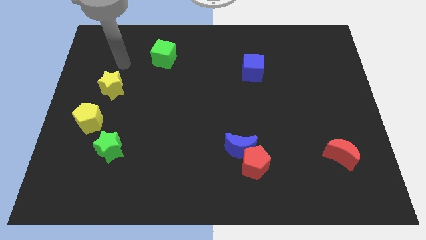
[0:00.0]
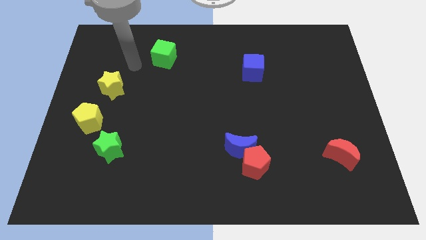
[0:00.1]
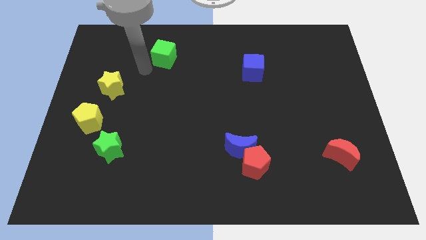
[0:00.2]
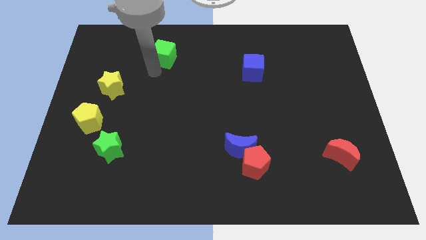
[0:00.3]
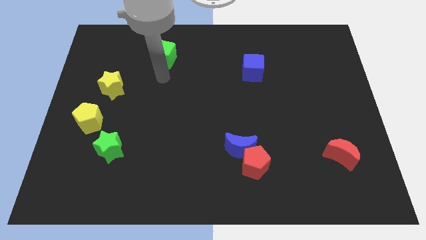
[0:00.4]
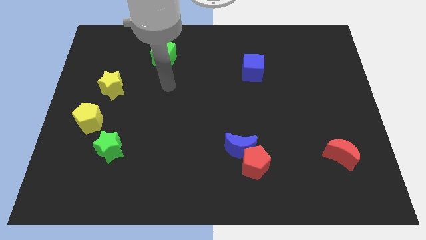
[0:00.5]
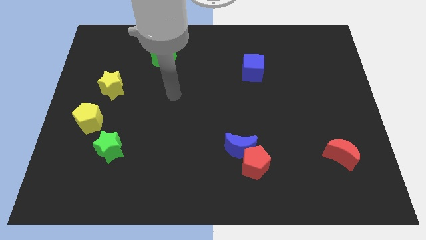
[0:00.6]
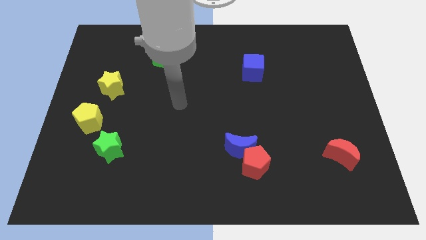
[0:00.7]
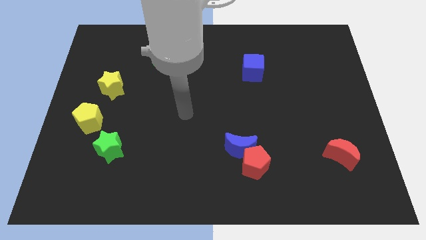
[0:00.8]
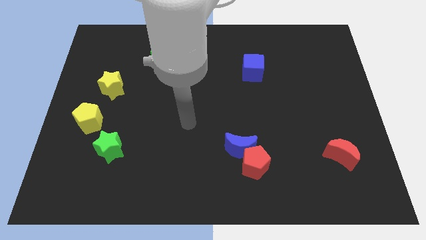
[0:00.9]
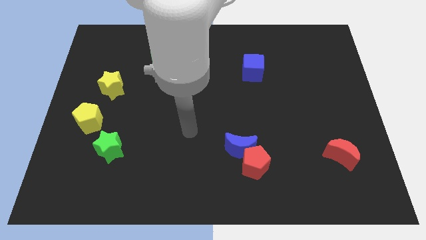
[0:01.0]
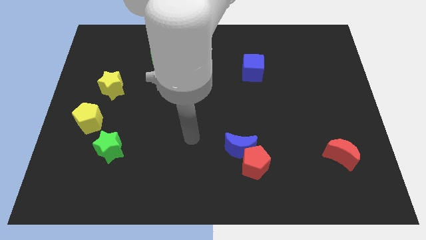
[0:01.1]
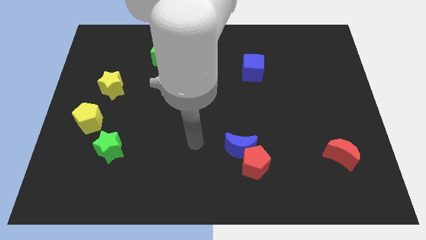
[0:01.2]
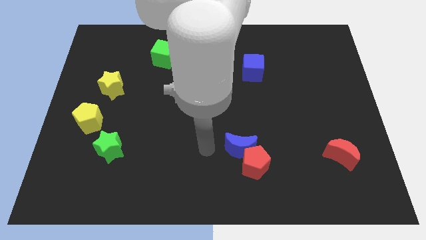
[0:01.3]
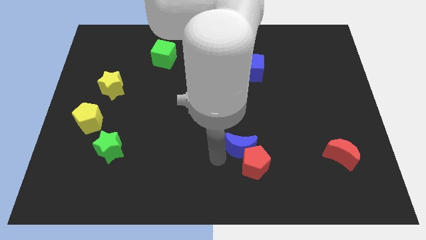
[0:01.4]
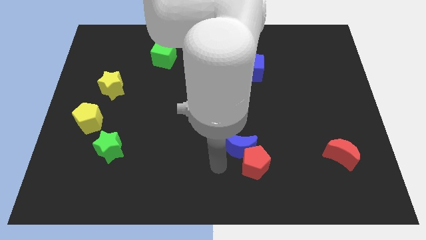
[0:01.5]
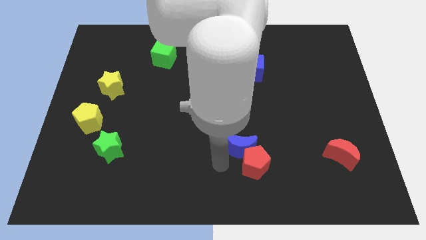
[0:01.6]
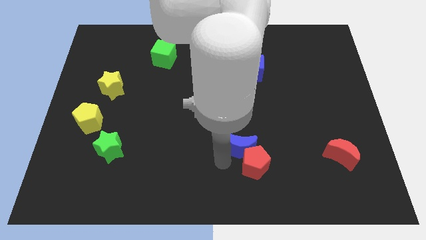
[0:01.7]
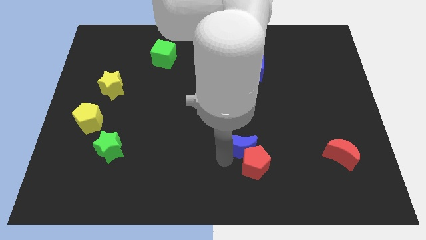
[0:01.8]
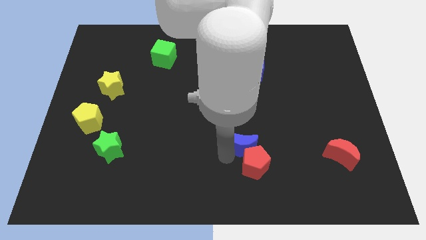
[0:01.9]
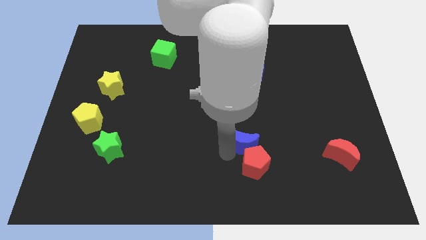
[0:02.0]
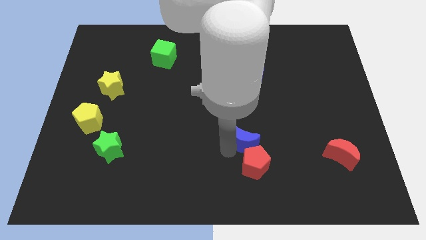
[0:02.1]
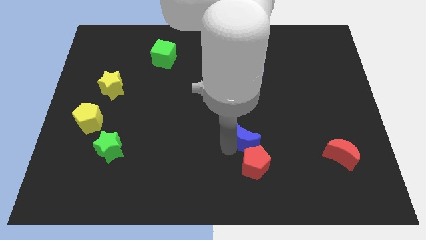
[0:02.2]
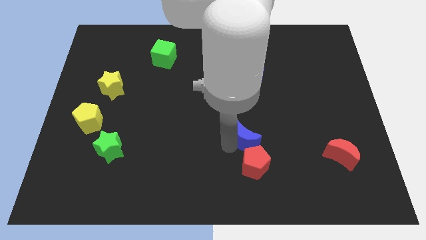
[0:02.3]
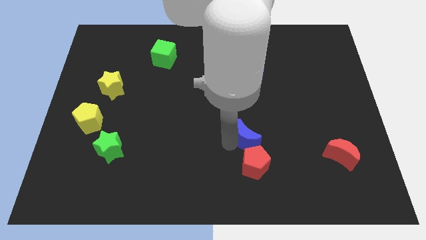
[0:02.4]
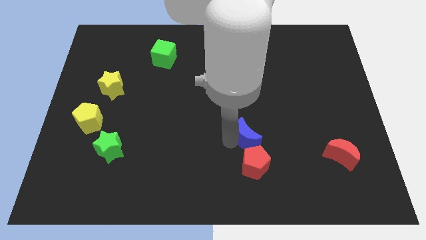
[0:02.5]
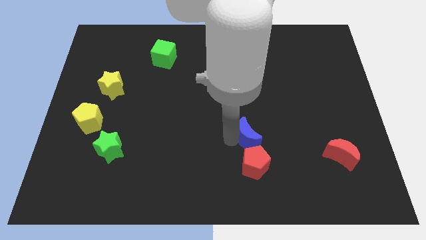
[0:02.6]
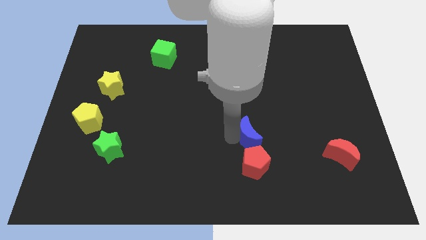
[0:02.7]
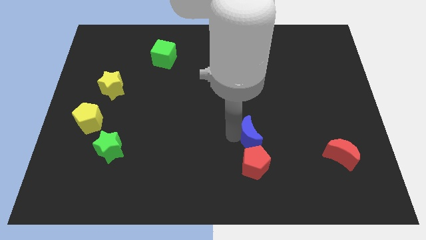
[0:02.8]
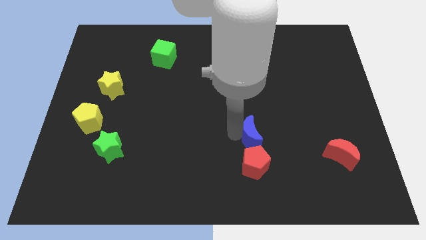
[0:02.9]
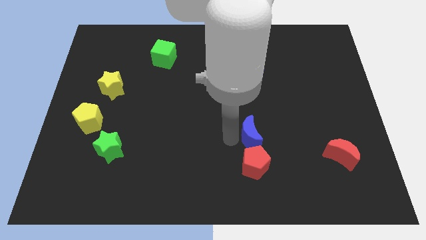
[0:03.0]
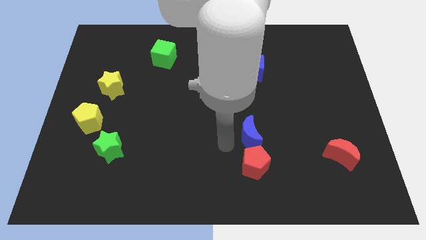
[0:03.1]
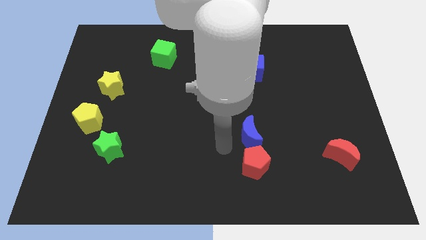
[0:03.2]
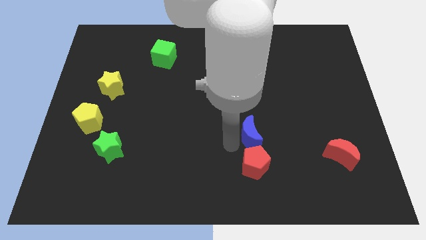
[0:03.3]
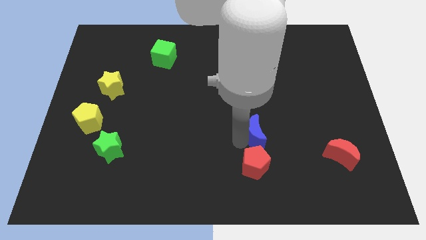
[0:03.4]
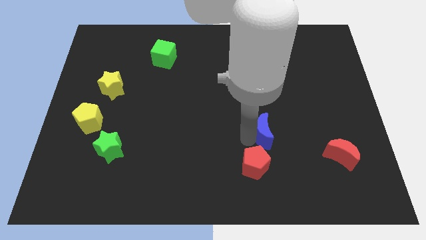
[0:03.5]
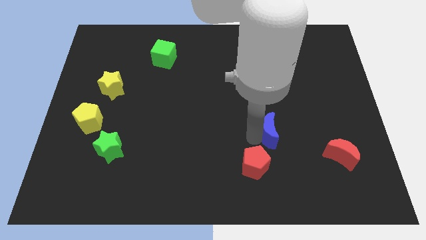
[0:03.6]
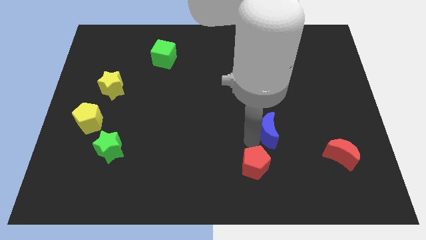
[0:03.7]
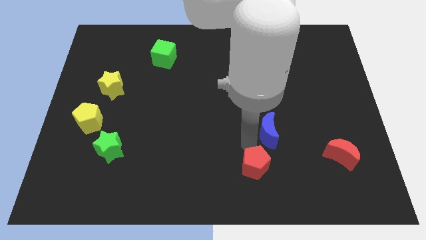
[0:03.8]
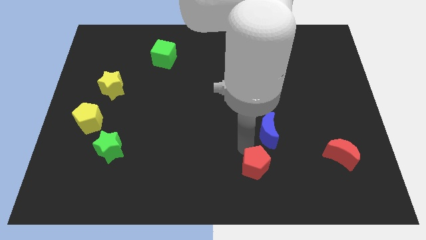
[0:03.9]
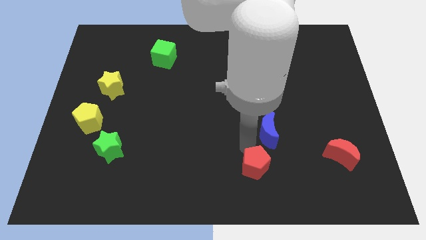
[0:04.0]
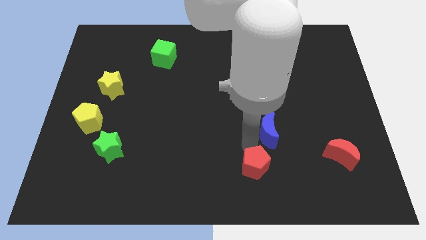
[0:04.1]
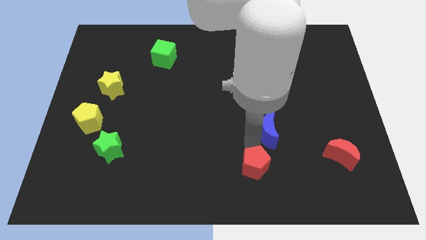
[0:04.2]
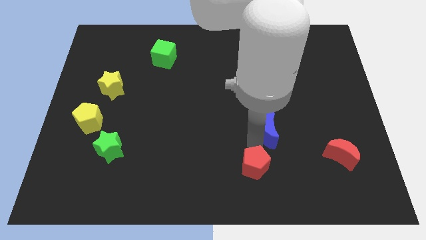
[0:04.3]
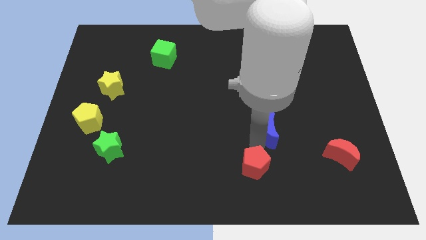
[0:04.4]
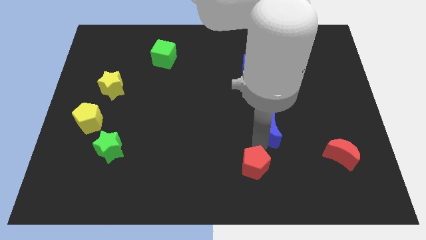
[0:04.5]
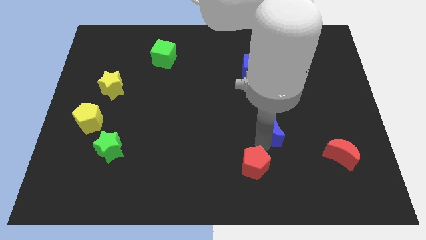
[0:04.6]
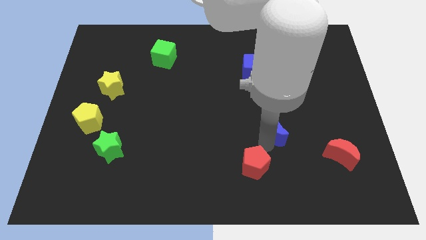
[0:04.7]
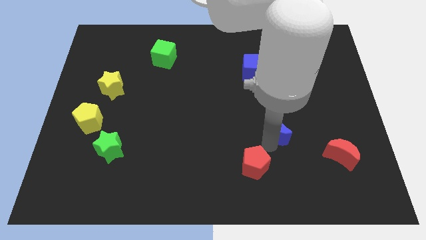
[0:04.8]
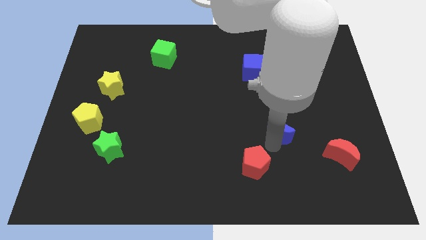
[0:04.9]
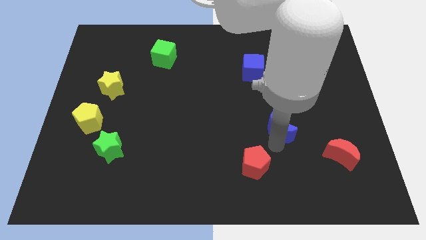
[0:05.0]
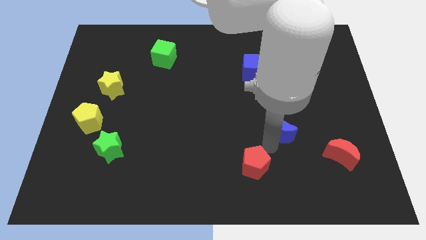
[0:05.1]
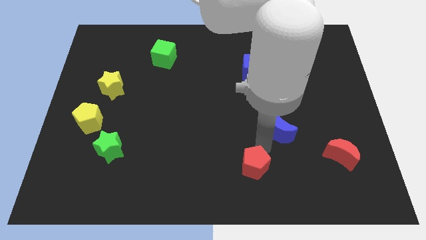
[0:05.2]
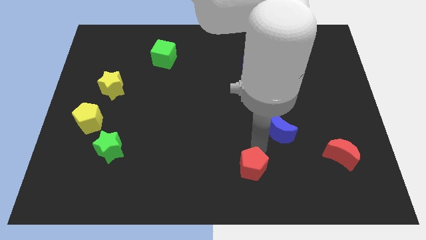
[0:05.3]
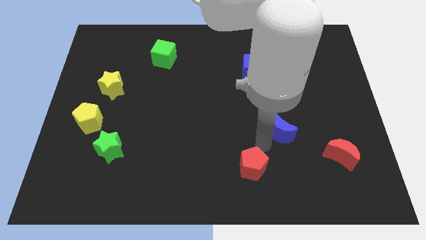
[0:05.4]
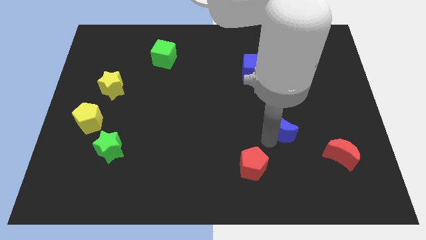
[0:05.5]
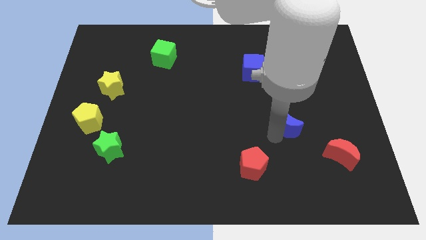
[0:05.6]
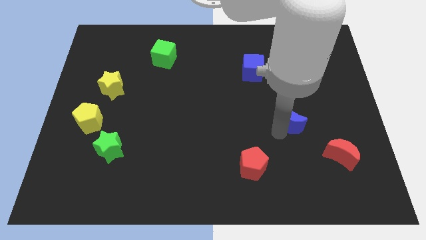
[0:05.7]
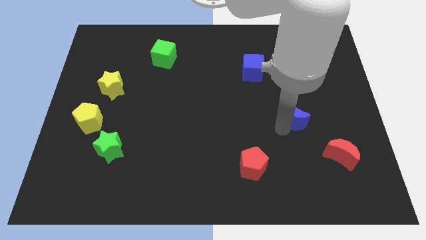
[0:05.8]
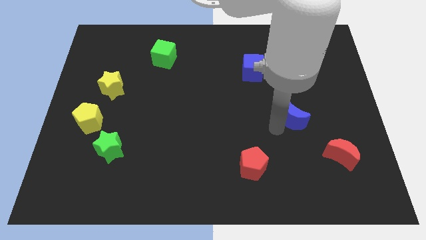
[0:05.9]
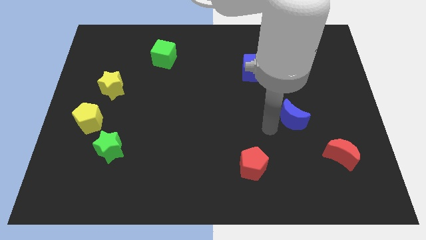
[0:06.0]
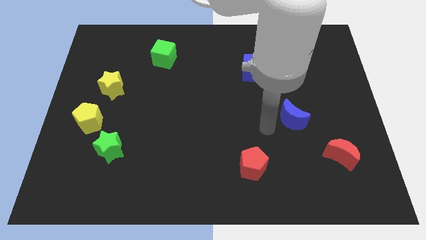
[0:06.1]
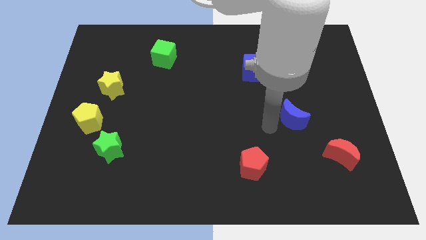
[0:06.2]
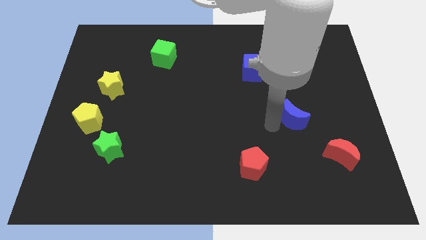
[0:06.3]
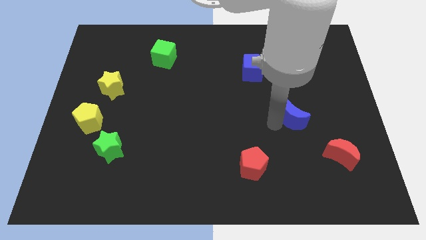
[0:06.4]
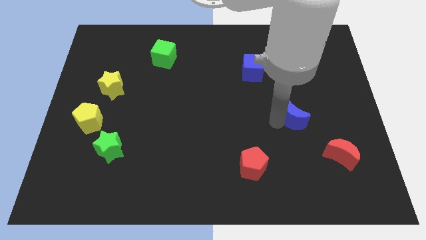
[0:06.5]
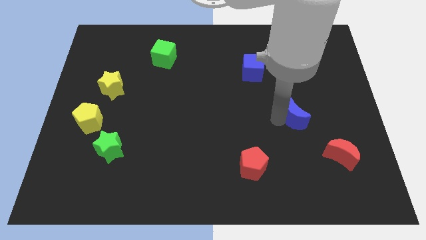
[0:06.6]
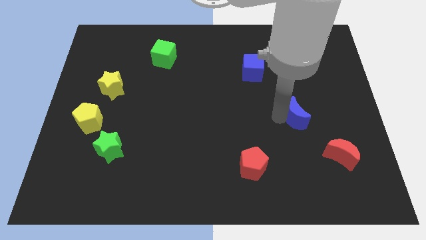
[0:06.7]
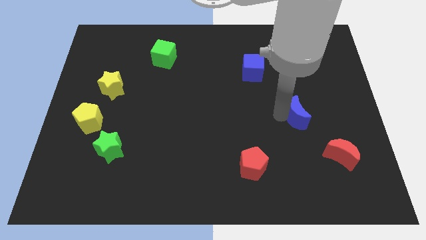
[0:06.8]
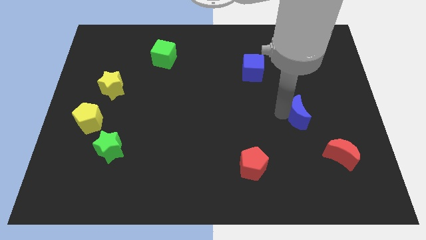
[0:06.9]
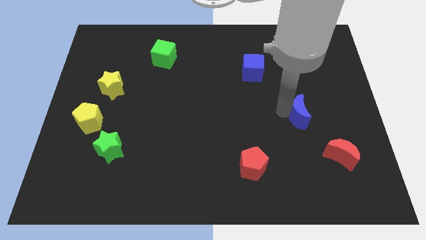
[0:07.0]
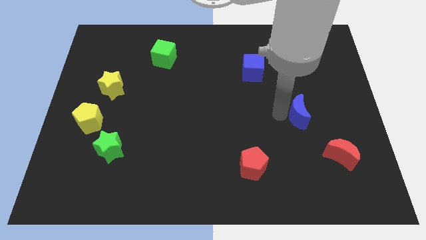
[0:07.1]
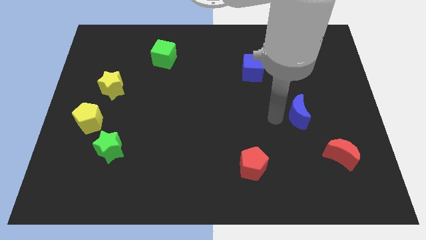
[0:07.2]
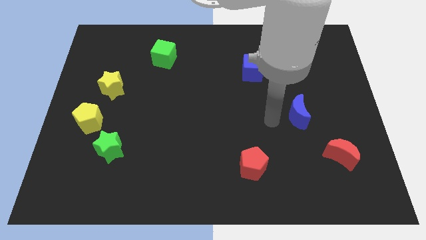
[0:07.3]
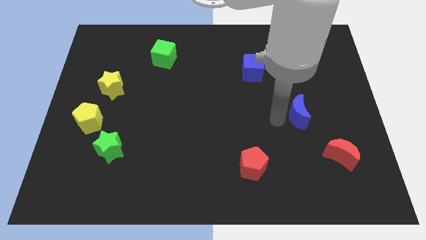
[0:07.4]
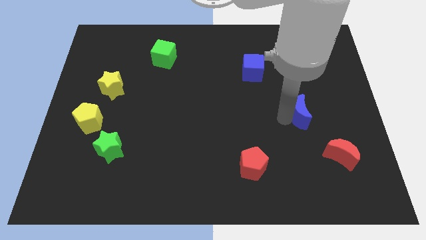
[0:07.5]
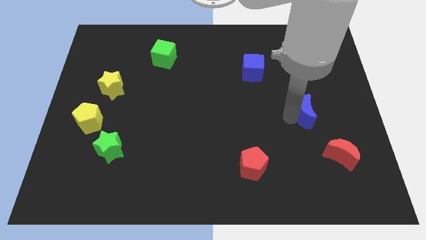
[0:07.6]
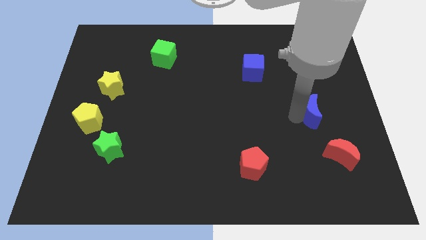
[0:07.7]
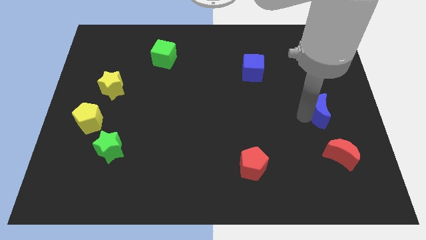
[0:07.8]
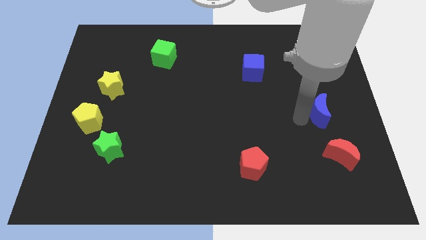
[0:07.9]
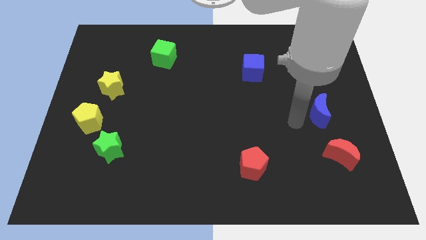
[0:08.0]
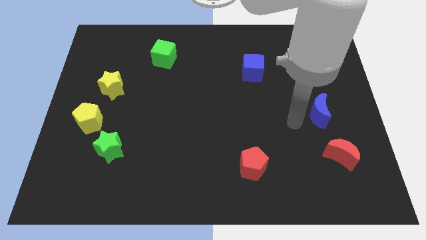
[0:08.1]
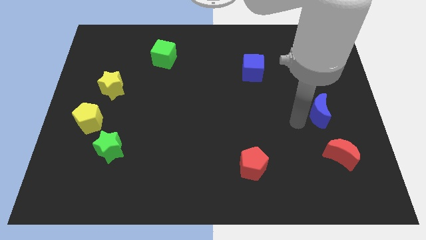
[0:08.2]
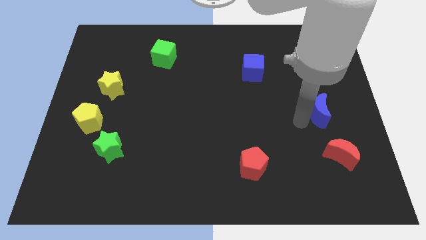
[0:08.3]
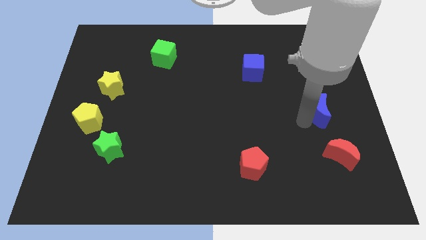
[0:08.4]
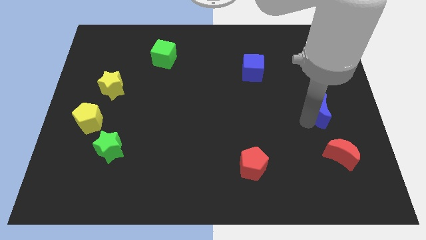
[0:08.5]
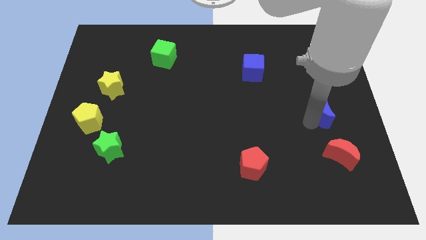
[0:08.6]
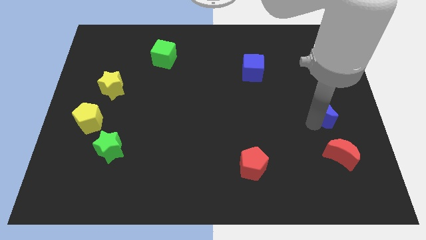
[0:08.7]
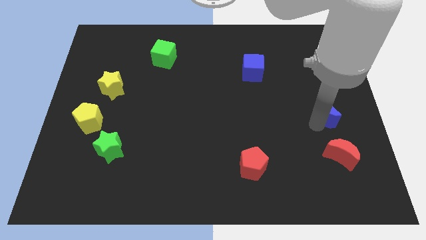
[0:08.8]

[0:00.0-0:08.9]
slide the blue moon to the center right
